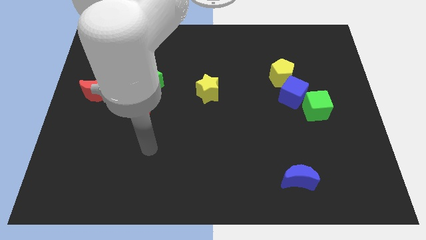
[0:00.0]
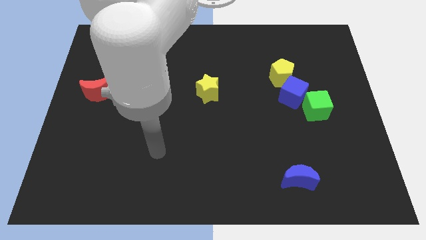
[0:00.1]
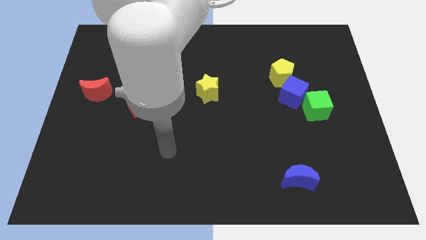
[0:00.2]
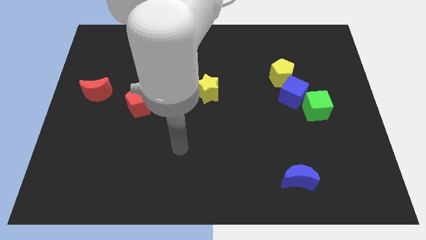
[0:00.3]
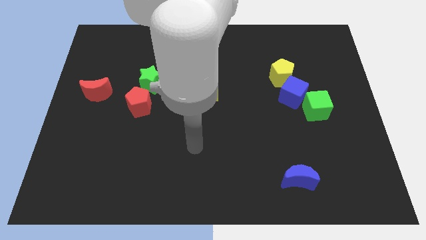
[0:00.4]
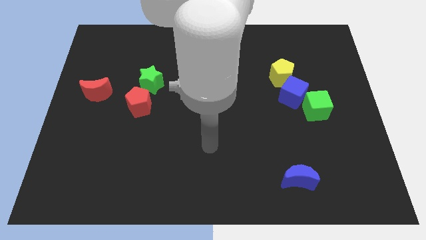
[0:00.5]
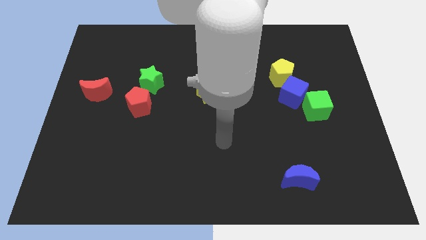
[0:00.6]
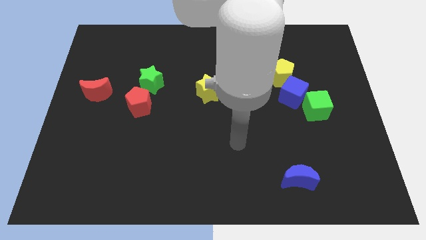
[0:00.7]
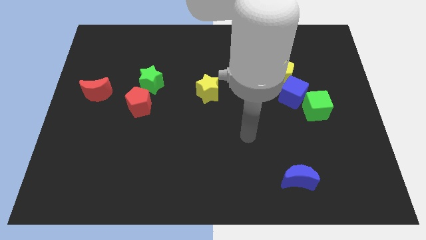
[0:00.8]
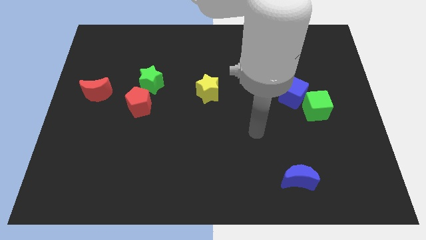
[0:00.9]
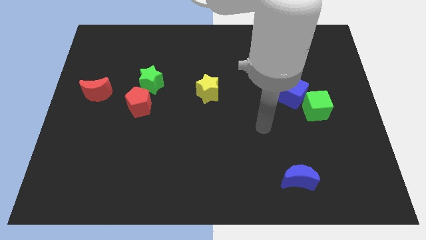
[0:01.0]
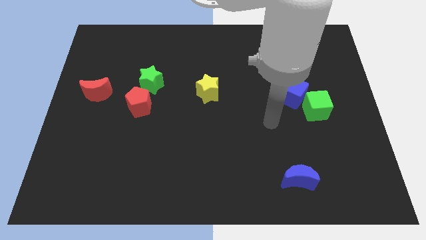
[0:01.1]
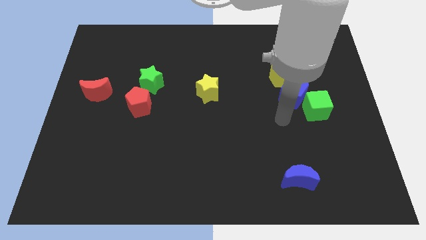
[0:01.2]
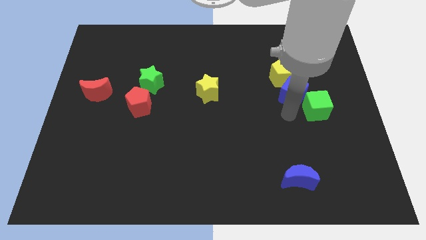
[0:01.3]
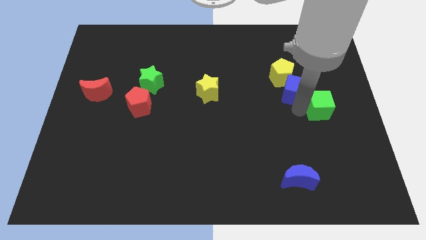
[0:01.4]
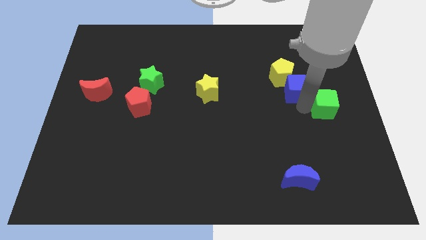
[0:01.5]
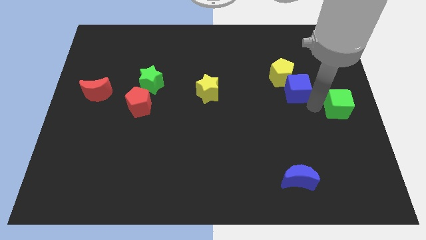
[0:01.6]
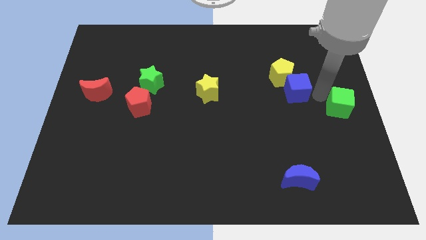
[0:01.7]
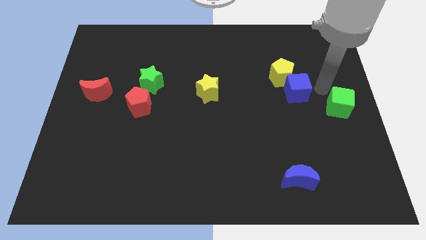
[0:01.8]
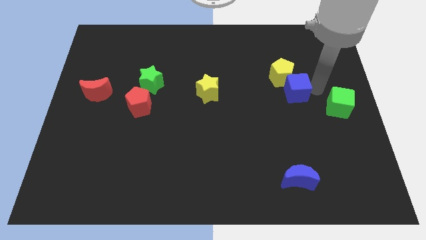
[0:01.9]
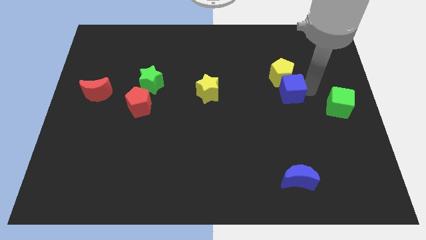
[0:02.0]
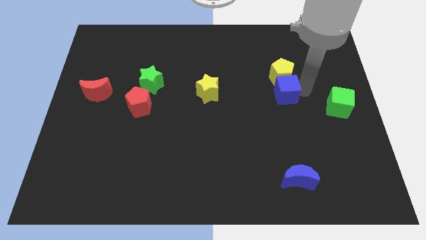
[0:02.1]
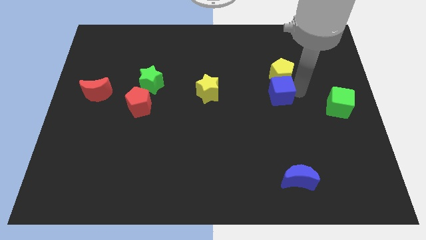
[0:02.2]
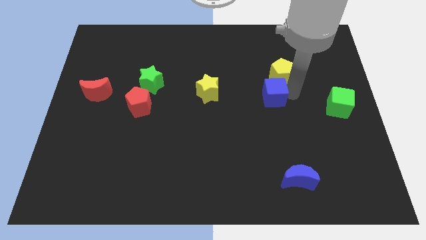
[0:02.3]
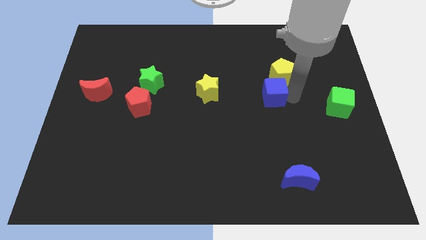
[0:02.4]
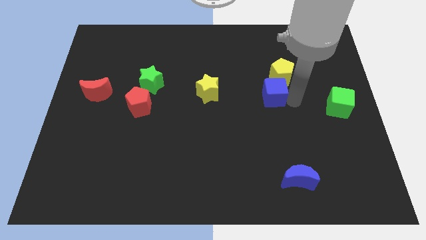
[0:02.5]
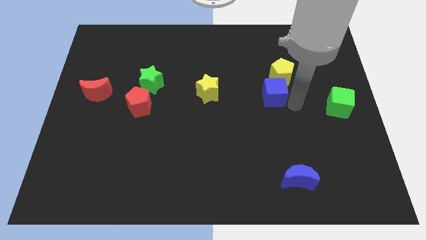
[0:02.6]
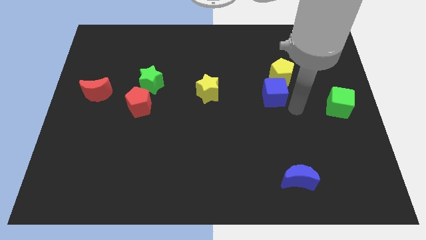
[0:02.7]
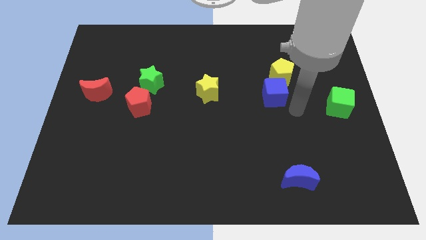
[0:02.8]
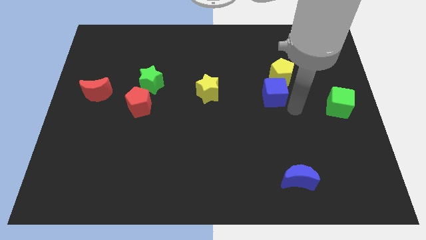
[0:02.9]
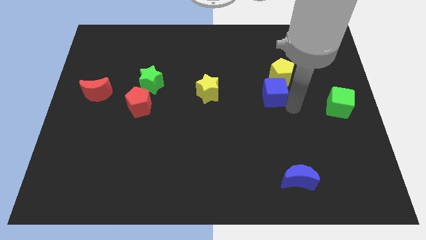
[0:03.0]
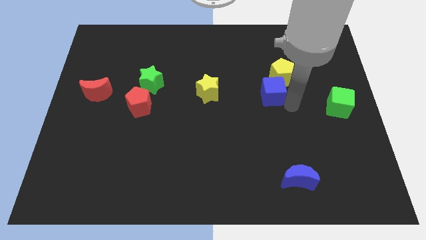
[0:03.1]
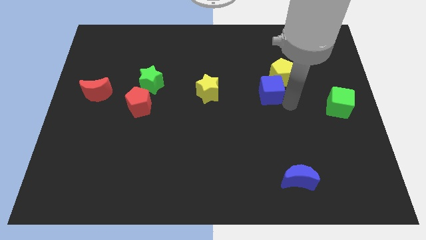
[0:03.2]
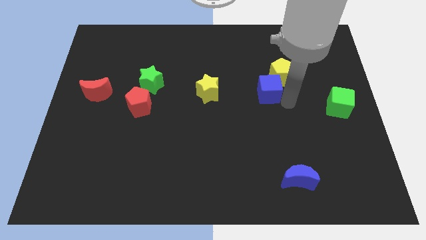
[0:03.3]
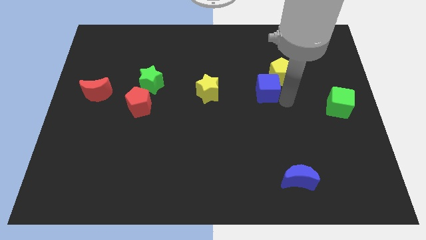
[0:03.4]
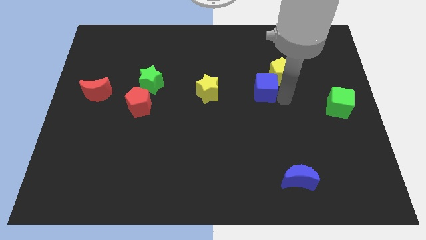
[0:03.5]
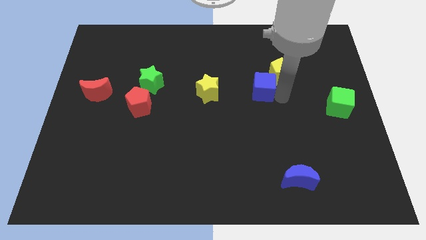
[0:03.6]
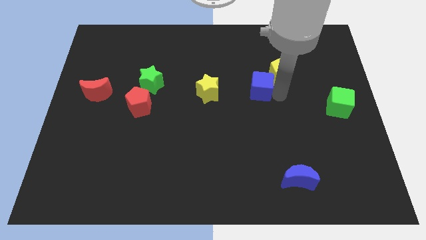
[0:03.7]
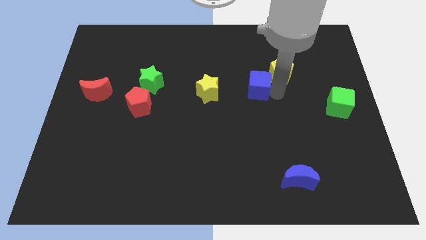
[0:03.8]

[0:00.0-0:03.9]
slightly push the blue cube upwards and to the left

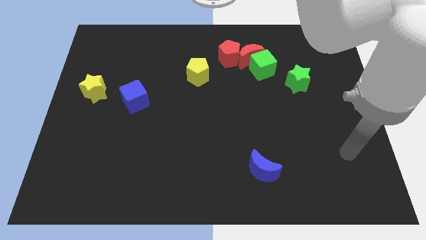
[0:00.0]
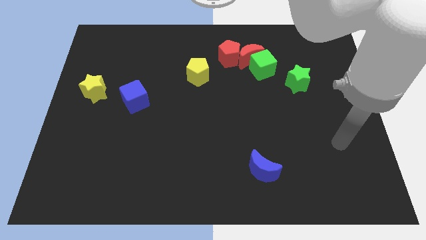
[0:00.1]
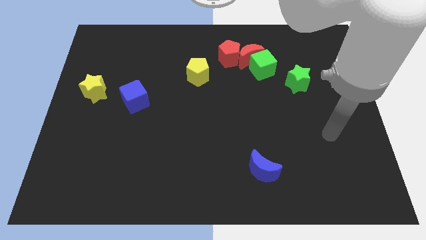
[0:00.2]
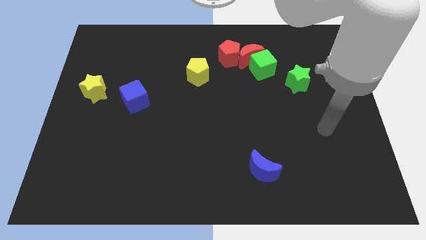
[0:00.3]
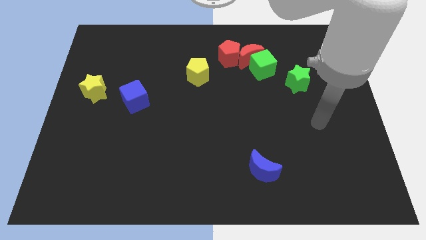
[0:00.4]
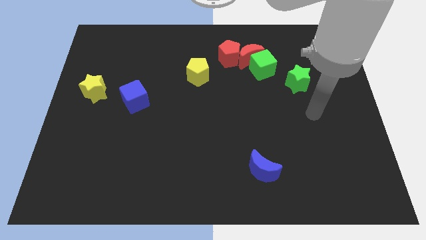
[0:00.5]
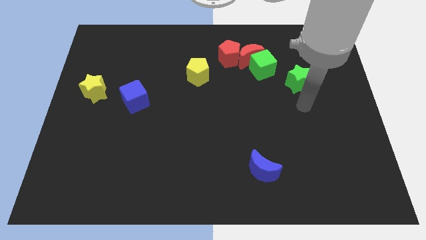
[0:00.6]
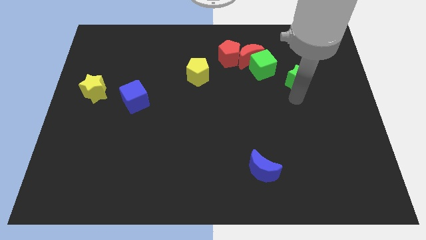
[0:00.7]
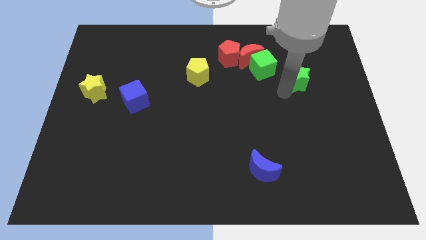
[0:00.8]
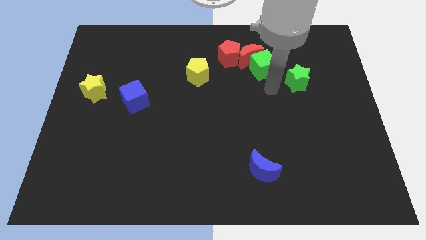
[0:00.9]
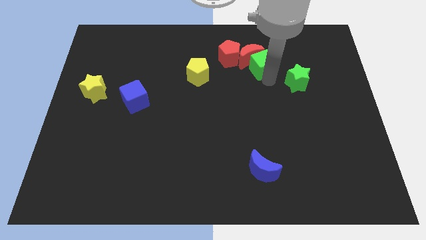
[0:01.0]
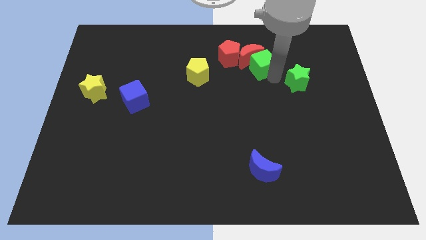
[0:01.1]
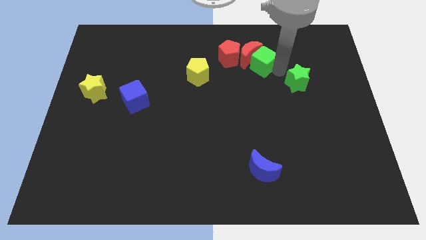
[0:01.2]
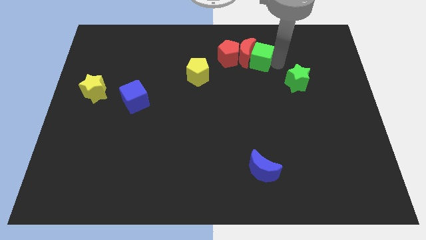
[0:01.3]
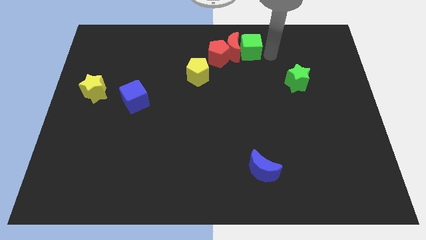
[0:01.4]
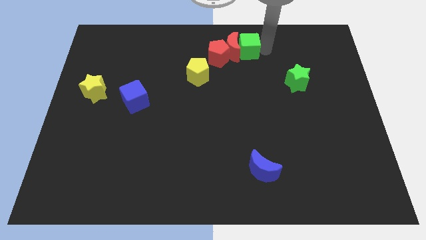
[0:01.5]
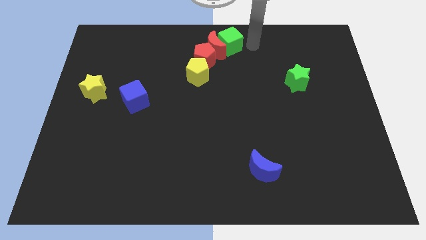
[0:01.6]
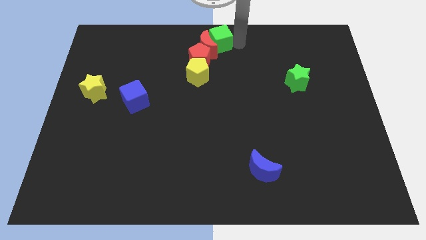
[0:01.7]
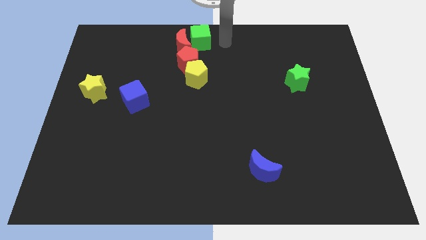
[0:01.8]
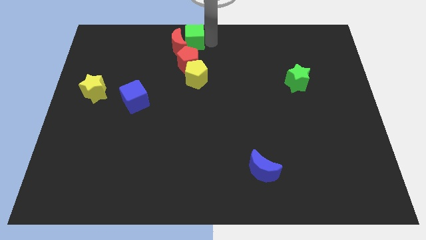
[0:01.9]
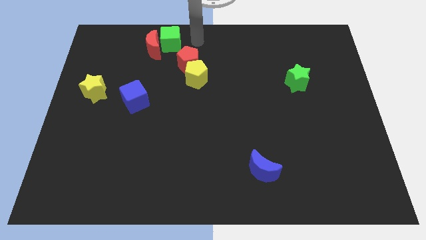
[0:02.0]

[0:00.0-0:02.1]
slide the red moon left

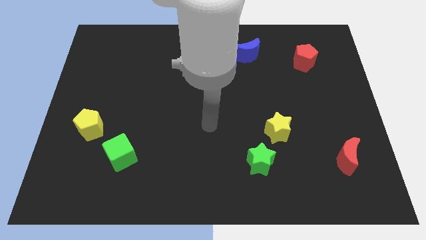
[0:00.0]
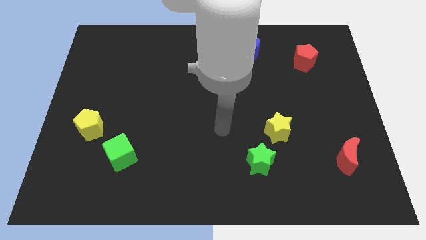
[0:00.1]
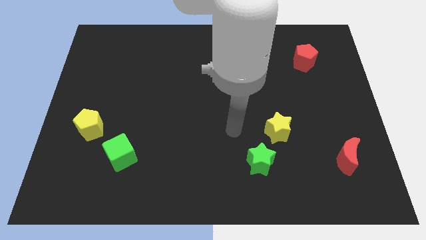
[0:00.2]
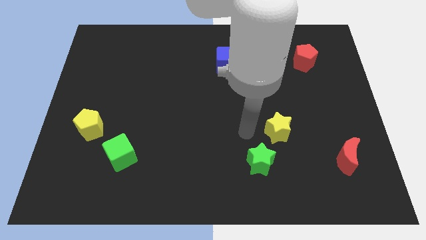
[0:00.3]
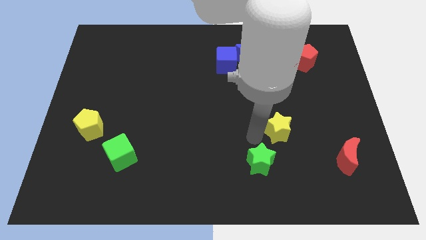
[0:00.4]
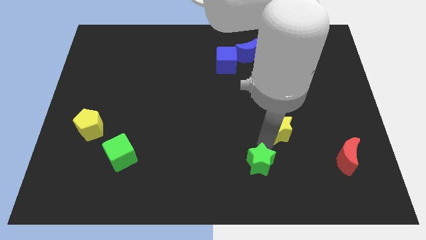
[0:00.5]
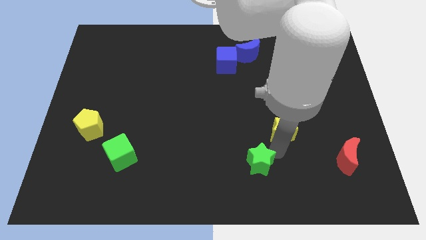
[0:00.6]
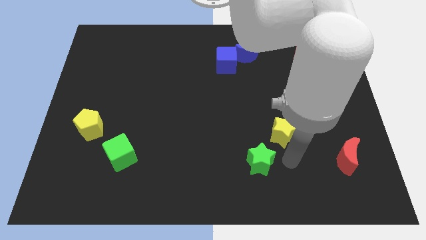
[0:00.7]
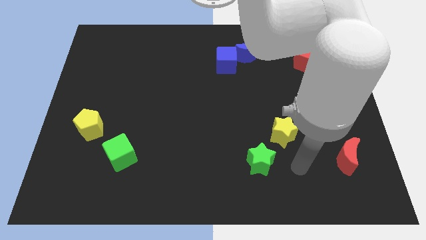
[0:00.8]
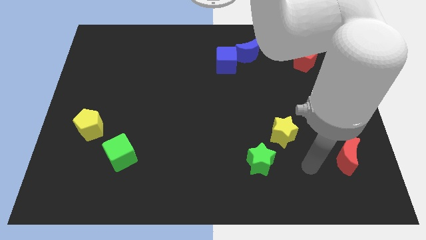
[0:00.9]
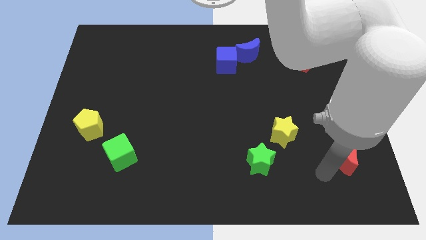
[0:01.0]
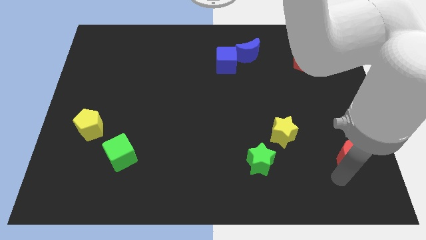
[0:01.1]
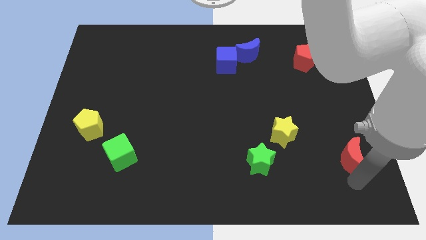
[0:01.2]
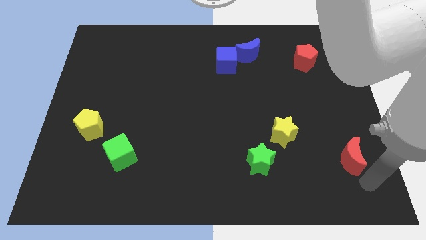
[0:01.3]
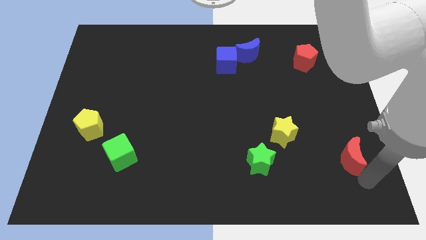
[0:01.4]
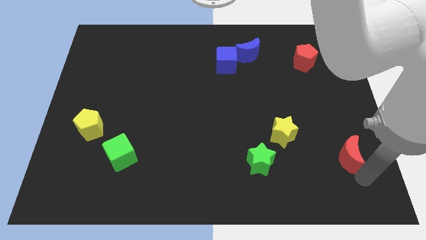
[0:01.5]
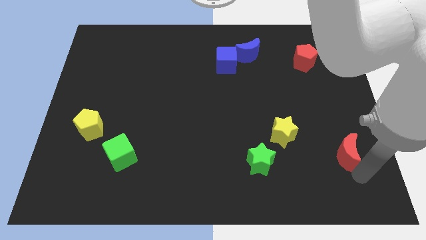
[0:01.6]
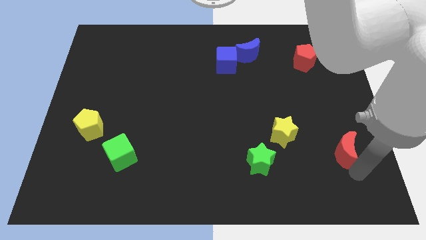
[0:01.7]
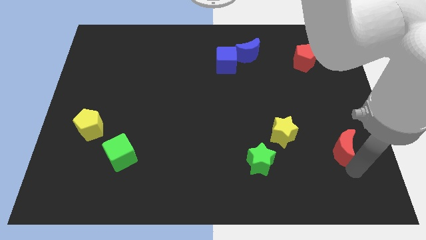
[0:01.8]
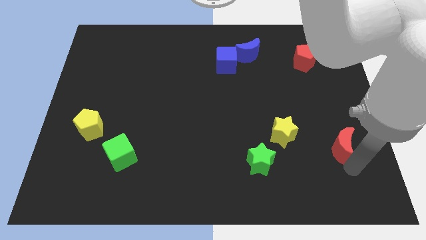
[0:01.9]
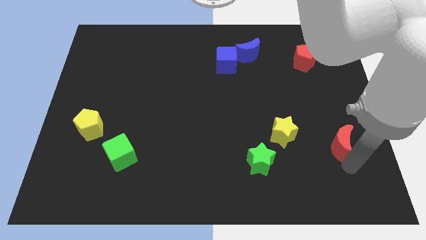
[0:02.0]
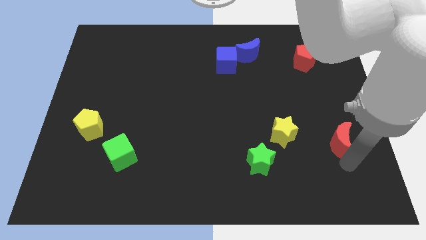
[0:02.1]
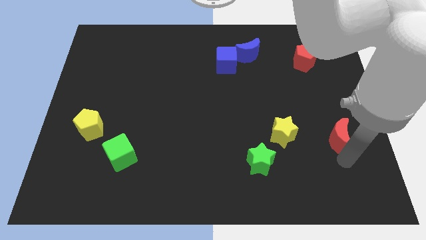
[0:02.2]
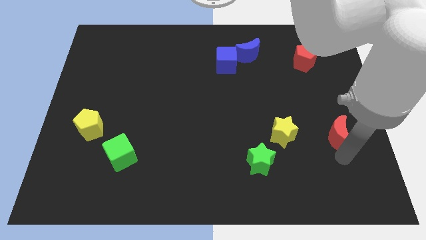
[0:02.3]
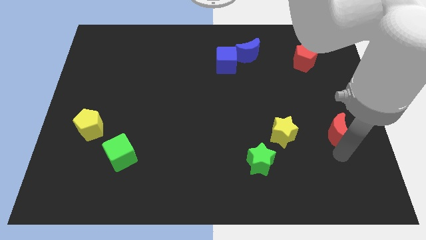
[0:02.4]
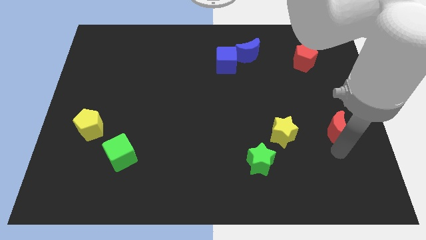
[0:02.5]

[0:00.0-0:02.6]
move the red moon upwards somewhat
